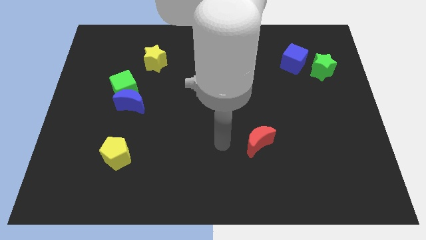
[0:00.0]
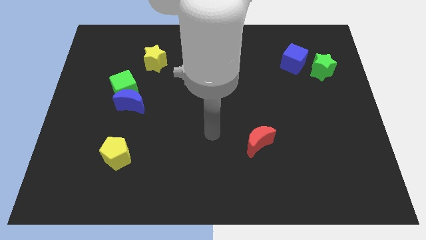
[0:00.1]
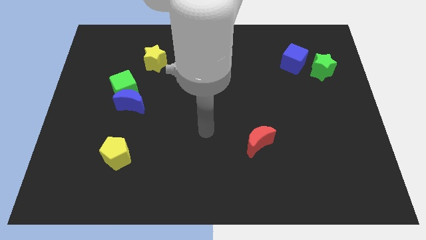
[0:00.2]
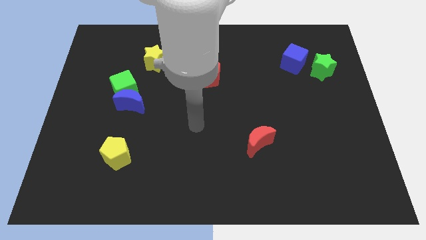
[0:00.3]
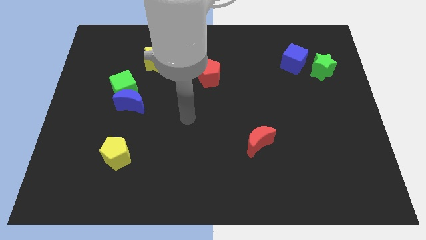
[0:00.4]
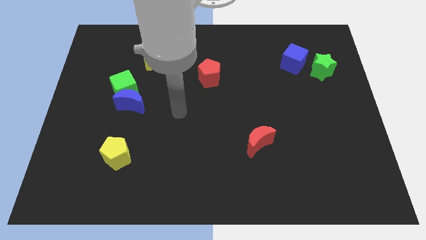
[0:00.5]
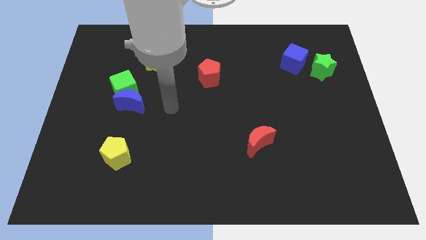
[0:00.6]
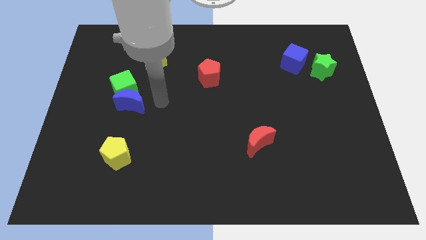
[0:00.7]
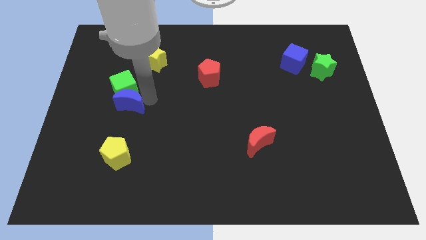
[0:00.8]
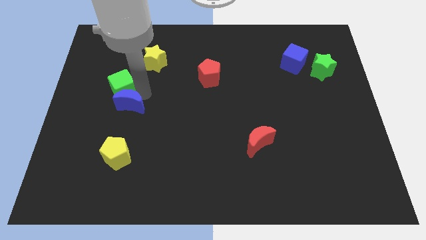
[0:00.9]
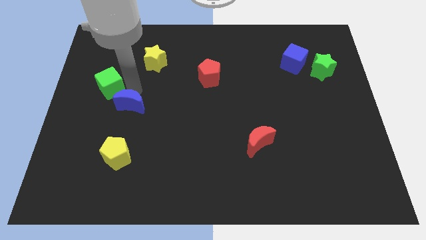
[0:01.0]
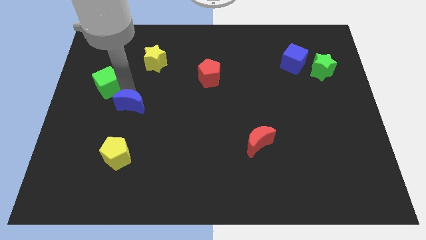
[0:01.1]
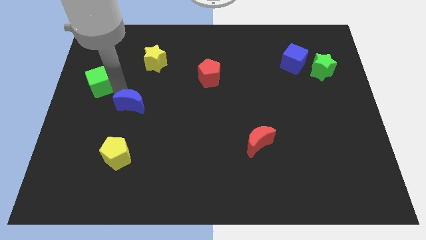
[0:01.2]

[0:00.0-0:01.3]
separate the blue moon from the green cube

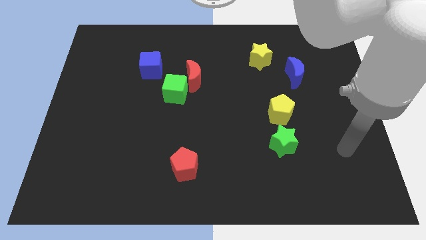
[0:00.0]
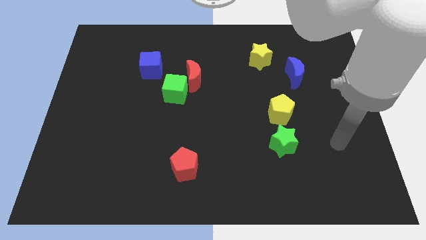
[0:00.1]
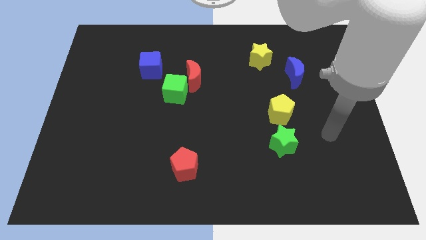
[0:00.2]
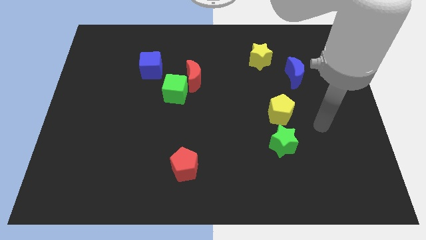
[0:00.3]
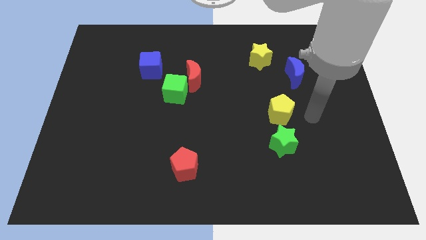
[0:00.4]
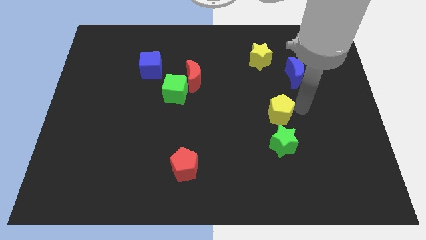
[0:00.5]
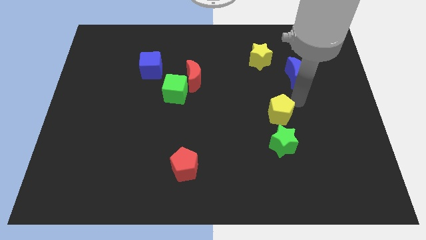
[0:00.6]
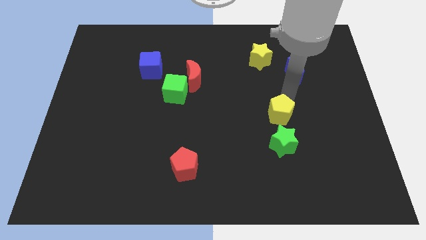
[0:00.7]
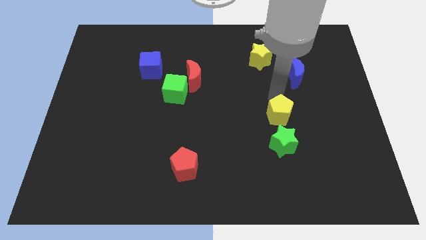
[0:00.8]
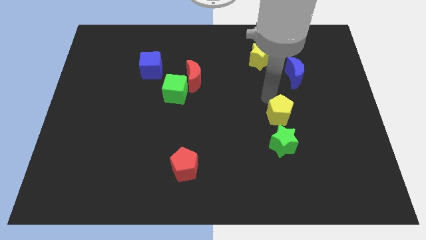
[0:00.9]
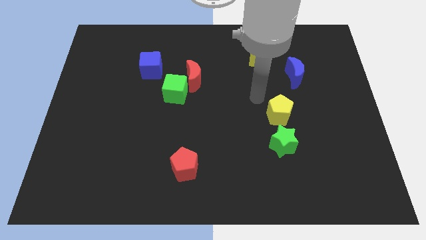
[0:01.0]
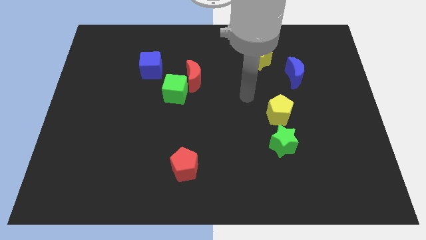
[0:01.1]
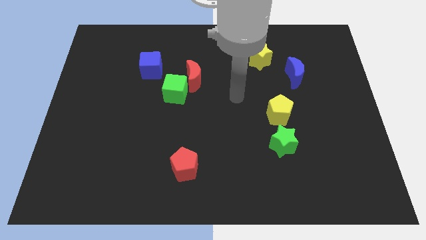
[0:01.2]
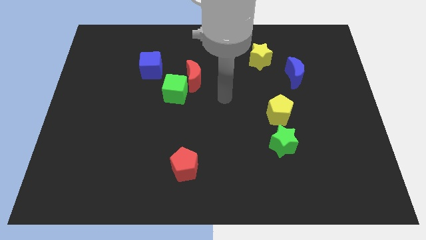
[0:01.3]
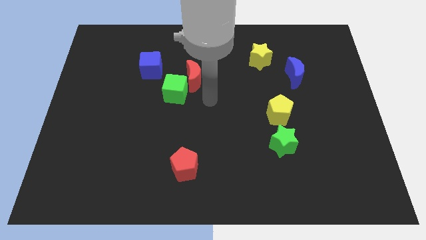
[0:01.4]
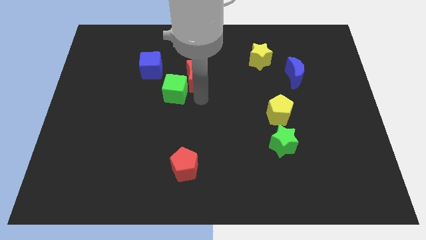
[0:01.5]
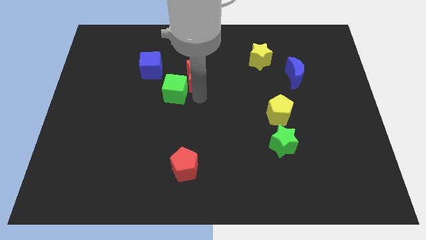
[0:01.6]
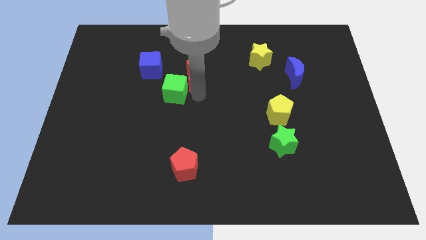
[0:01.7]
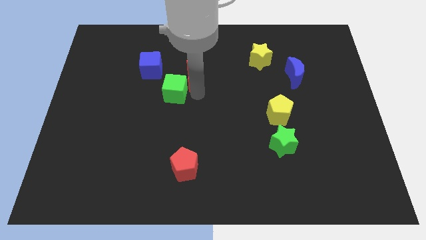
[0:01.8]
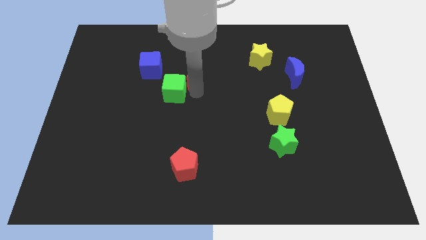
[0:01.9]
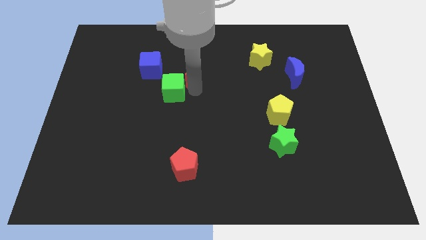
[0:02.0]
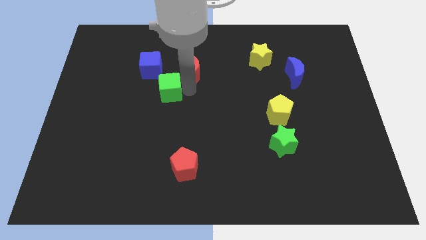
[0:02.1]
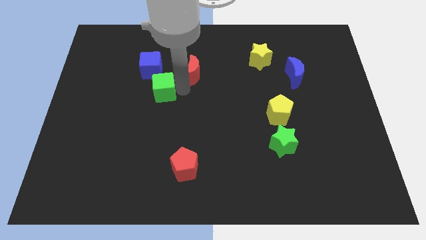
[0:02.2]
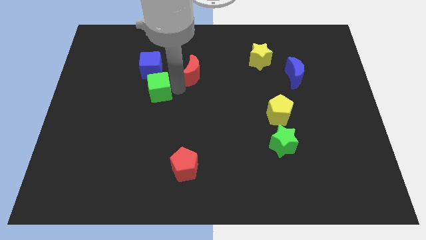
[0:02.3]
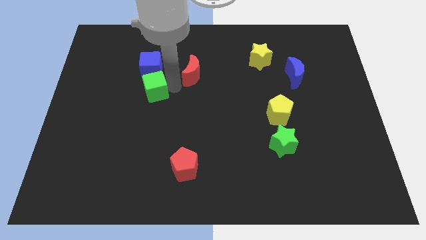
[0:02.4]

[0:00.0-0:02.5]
separate the red moon from the green cube

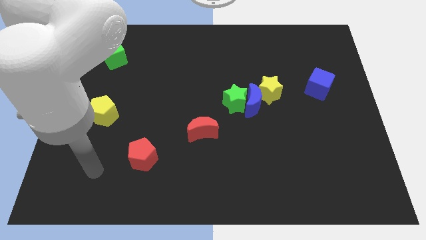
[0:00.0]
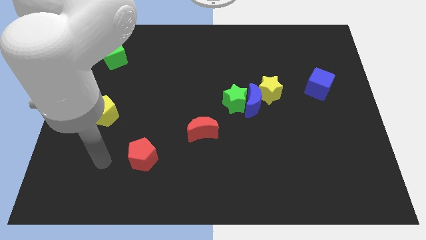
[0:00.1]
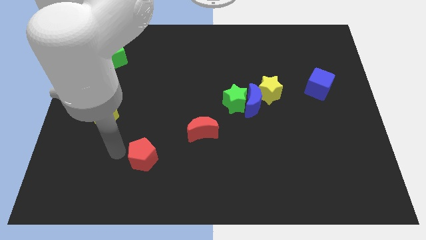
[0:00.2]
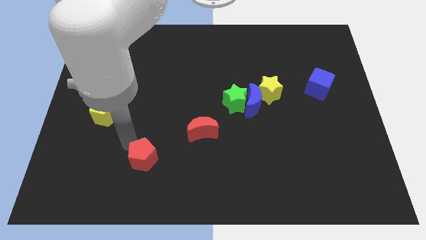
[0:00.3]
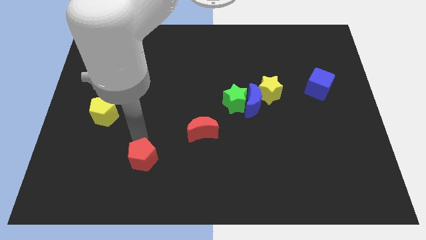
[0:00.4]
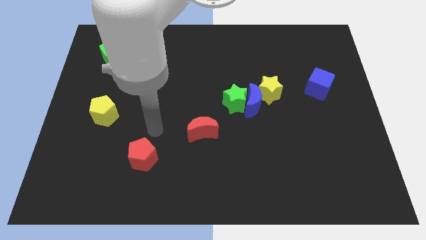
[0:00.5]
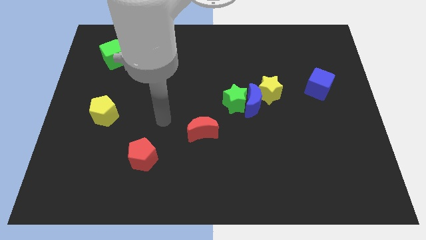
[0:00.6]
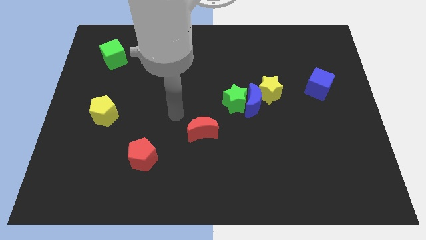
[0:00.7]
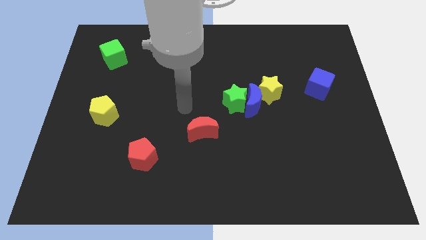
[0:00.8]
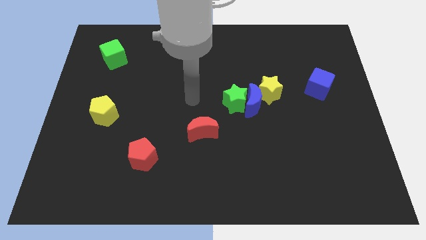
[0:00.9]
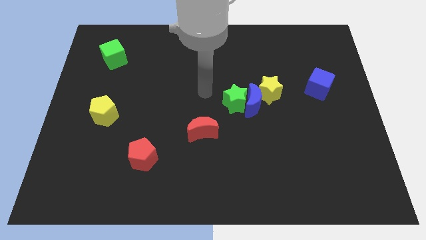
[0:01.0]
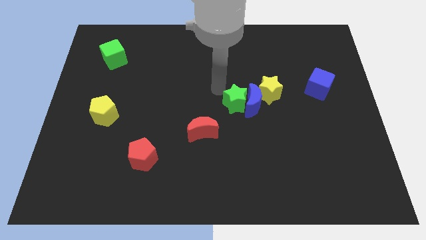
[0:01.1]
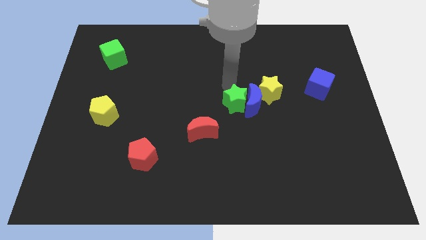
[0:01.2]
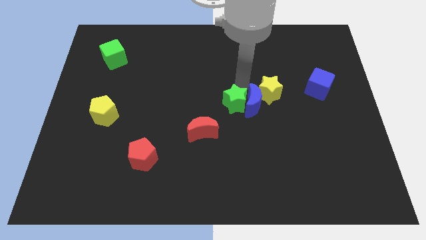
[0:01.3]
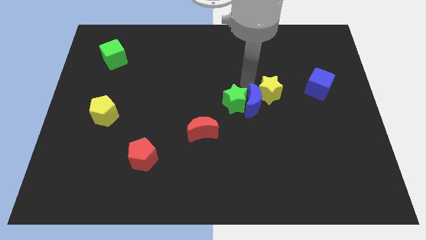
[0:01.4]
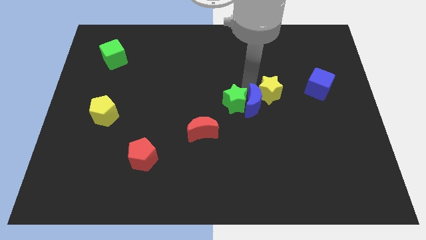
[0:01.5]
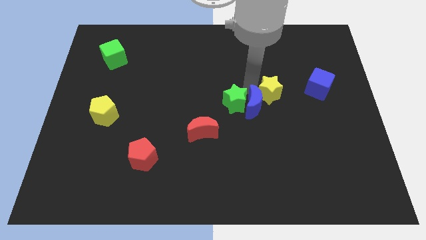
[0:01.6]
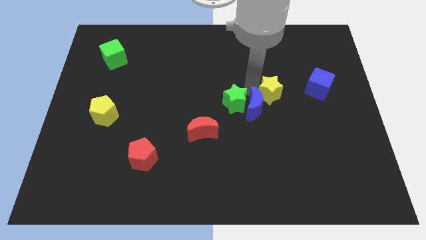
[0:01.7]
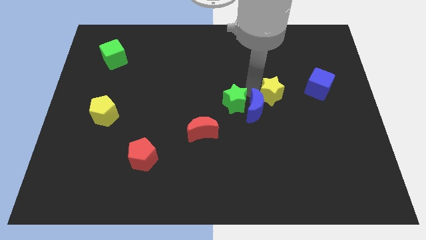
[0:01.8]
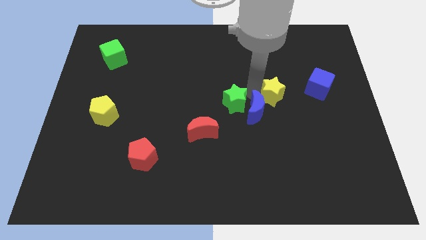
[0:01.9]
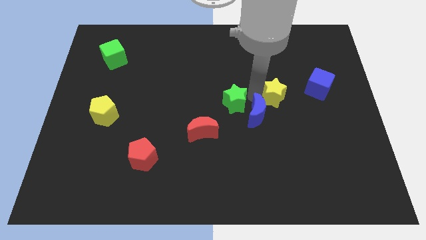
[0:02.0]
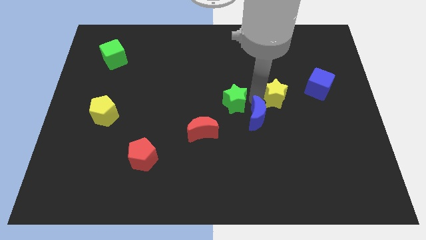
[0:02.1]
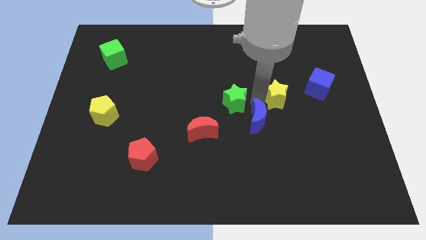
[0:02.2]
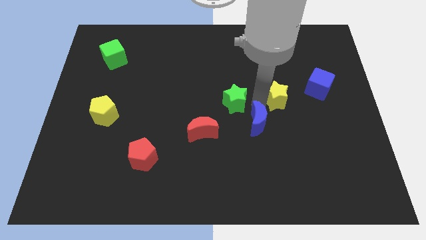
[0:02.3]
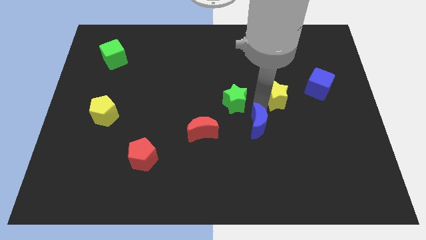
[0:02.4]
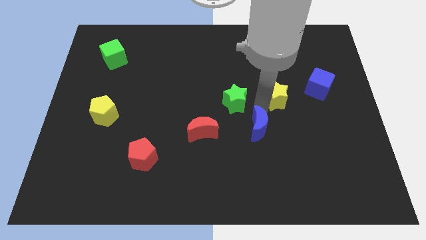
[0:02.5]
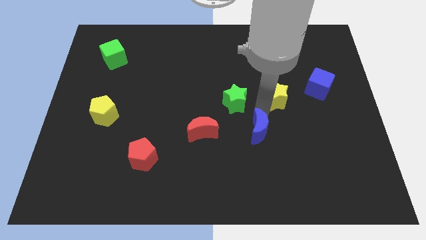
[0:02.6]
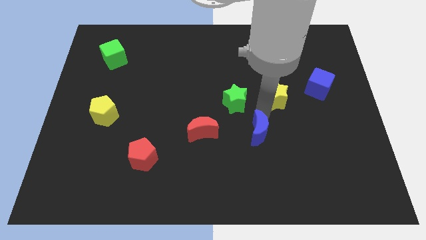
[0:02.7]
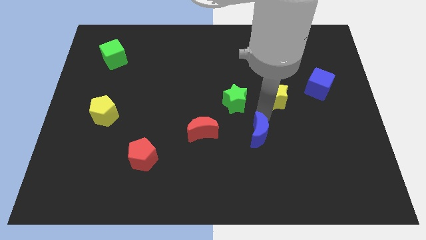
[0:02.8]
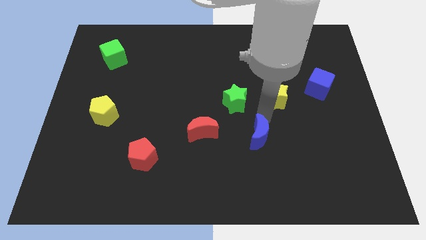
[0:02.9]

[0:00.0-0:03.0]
separate the blue moon from the green star and yellow star

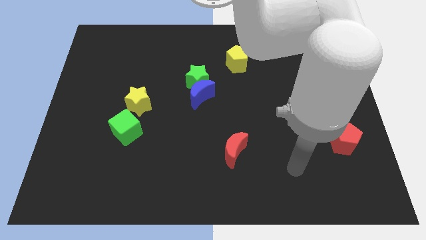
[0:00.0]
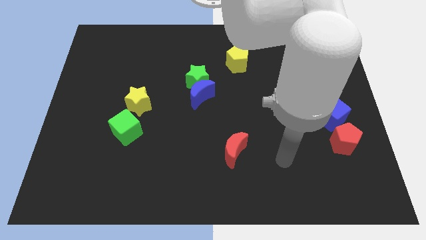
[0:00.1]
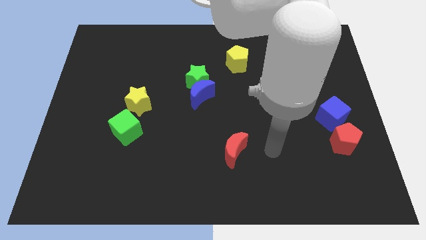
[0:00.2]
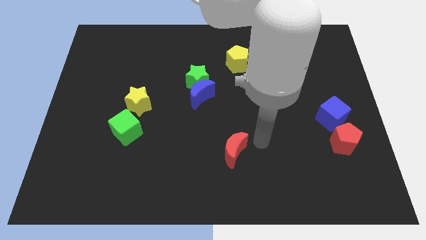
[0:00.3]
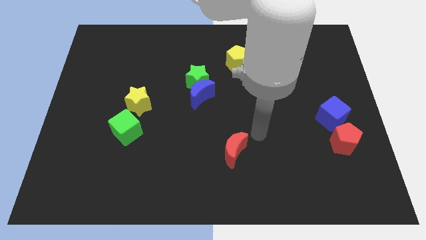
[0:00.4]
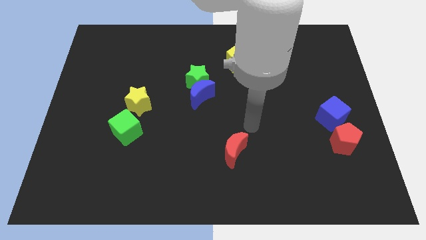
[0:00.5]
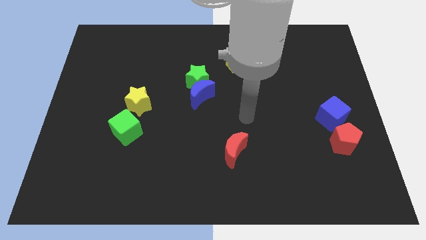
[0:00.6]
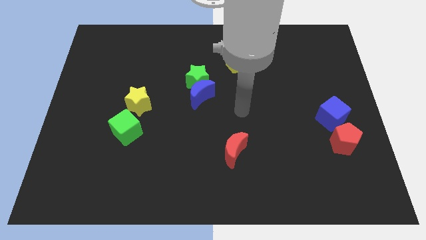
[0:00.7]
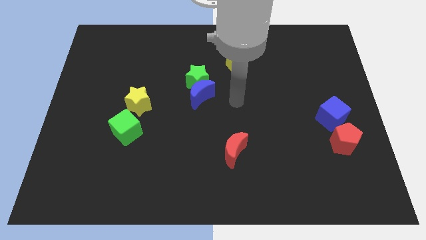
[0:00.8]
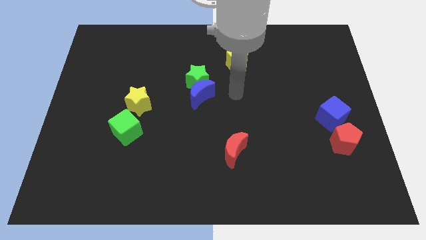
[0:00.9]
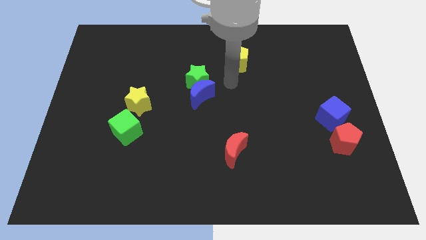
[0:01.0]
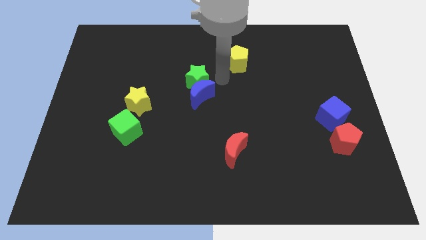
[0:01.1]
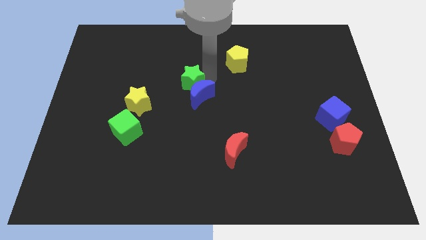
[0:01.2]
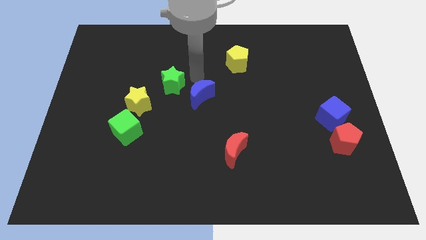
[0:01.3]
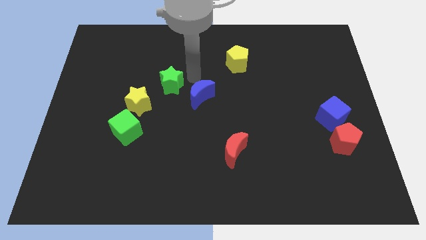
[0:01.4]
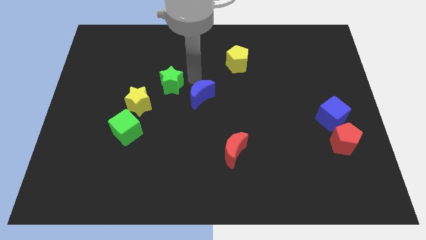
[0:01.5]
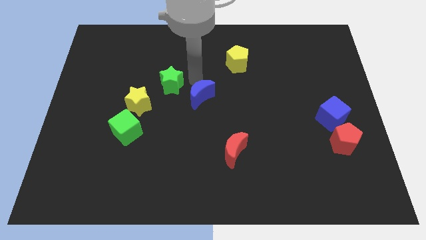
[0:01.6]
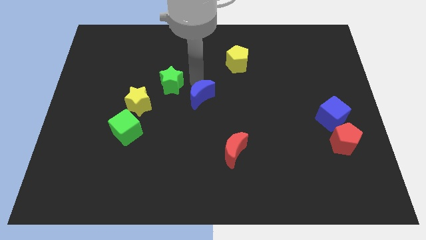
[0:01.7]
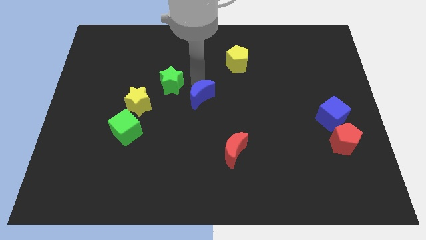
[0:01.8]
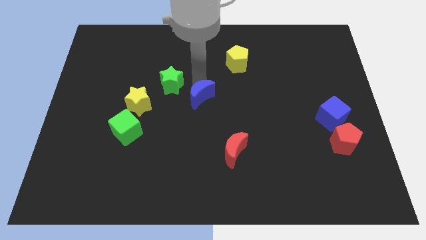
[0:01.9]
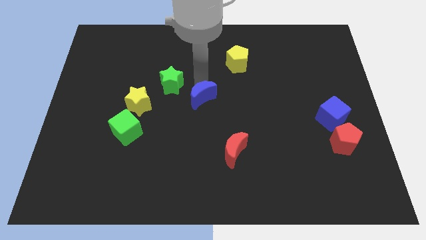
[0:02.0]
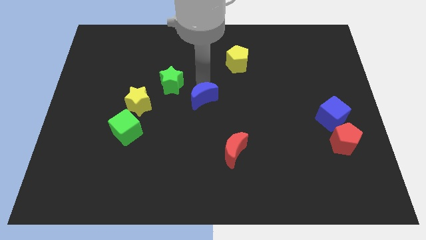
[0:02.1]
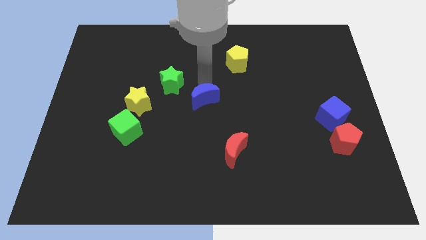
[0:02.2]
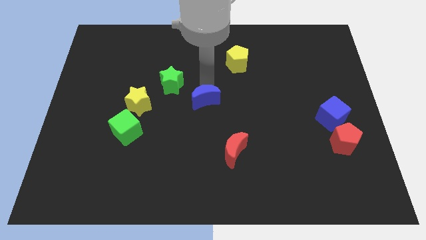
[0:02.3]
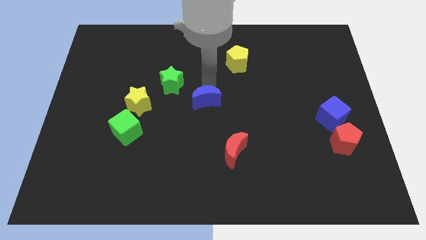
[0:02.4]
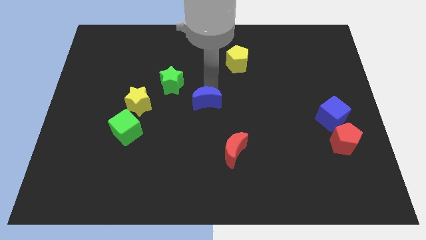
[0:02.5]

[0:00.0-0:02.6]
separate the blue moon from the green star
